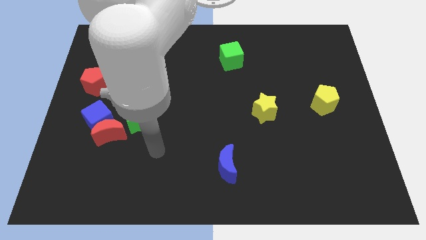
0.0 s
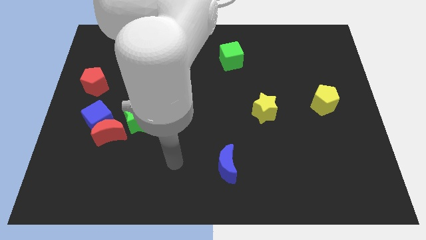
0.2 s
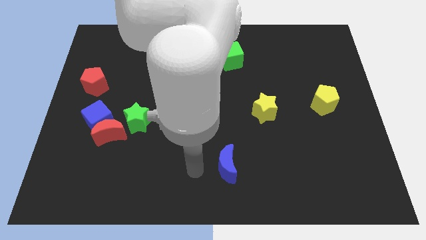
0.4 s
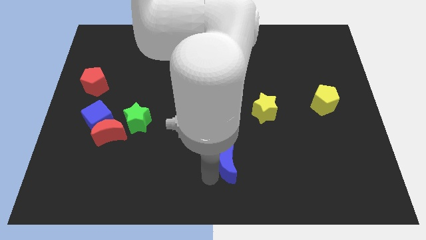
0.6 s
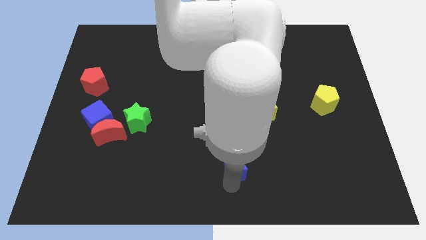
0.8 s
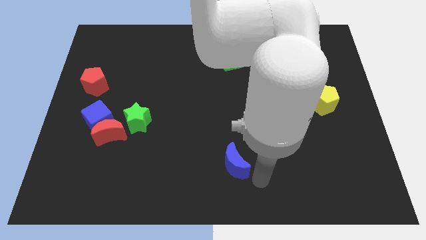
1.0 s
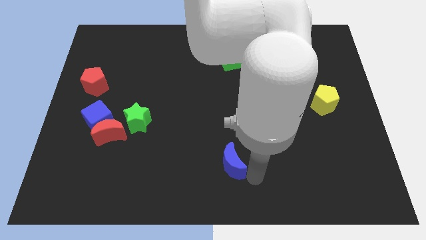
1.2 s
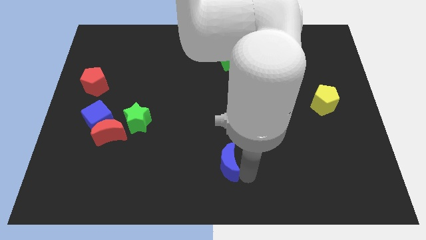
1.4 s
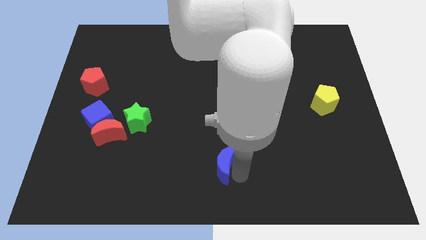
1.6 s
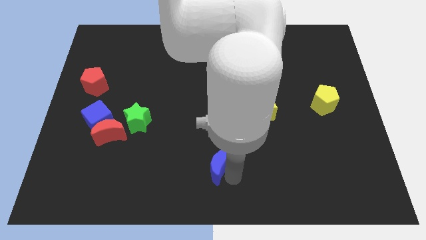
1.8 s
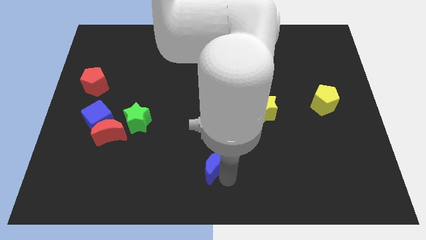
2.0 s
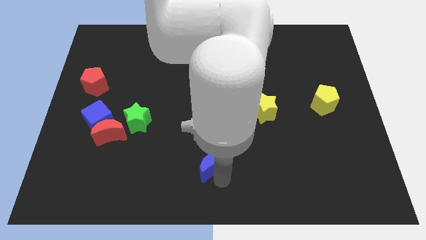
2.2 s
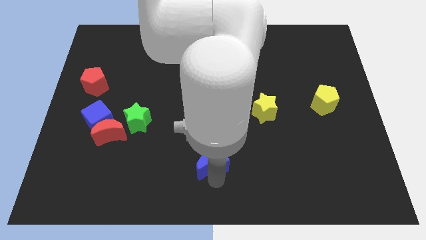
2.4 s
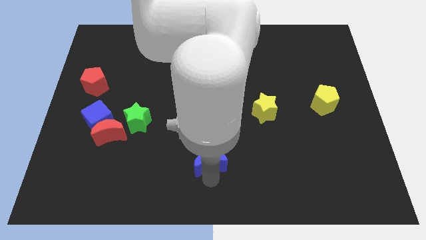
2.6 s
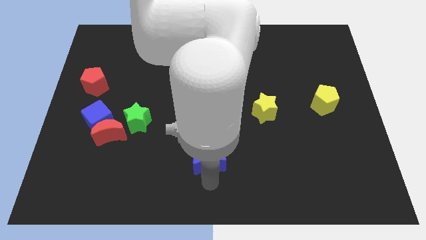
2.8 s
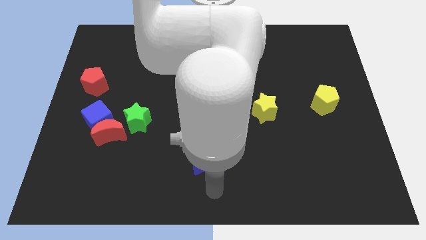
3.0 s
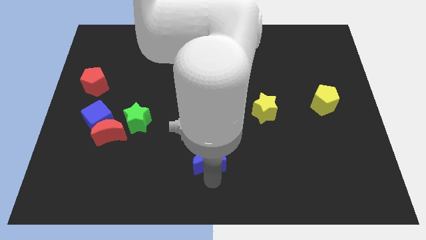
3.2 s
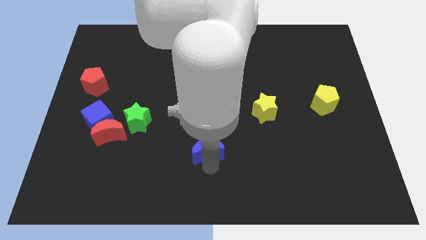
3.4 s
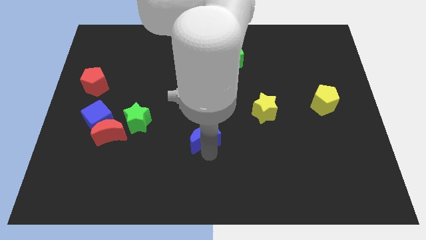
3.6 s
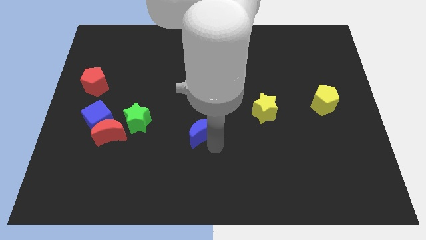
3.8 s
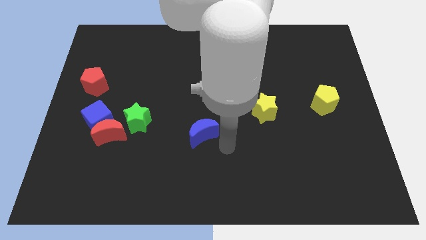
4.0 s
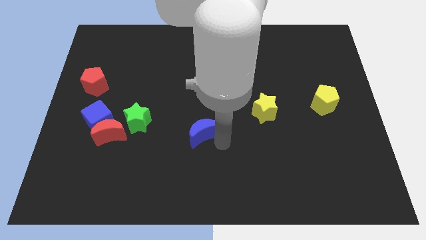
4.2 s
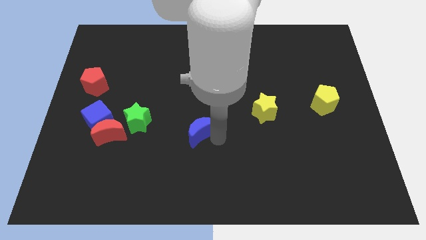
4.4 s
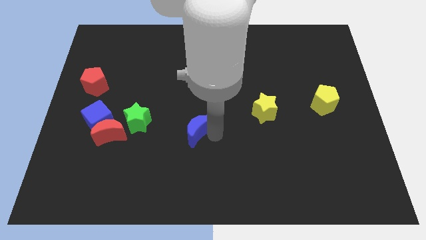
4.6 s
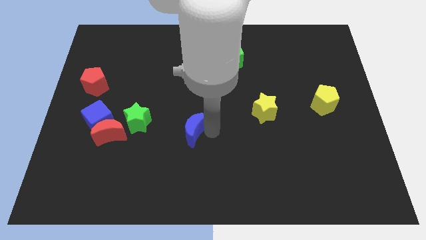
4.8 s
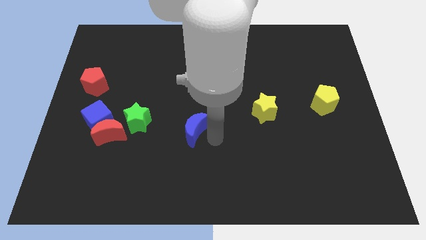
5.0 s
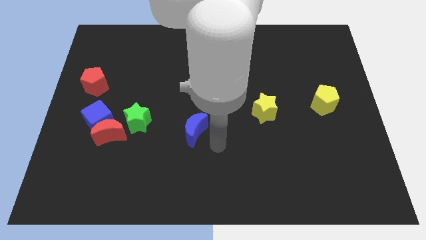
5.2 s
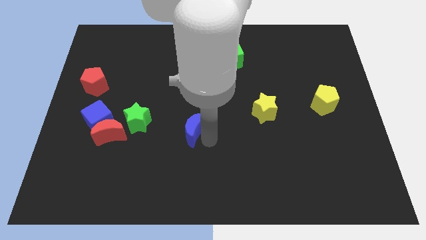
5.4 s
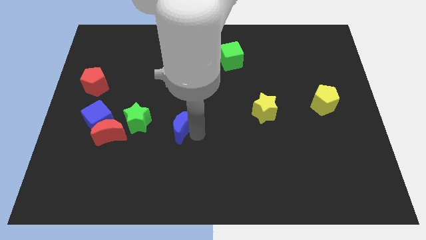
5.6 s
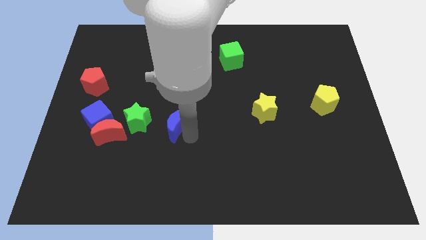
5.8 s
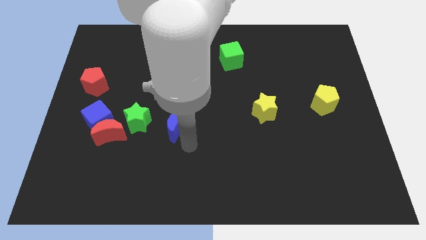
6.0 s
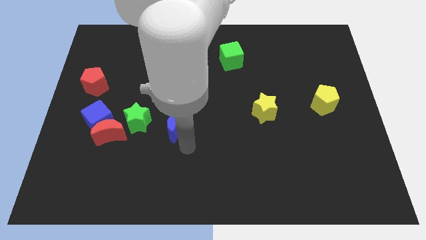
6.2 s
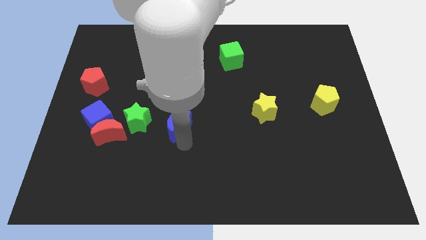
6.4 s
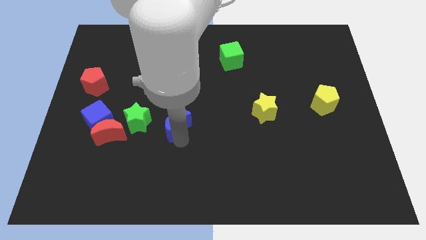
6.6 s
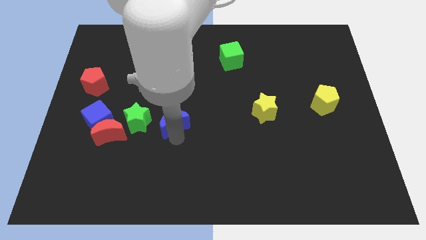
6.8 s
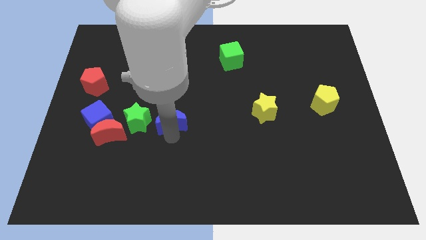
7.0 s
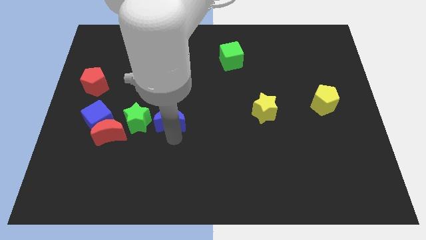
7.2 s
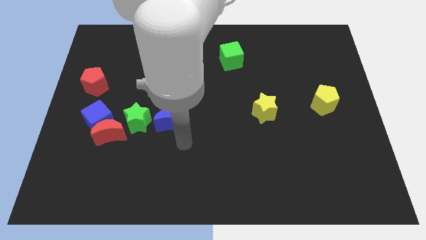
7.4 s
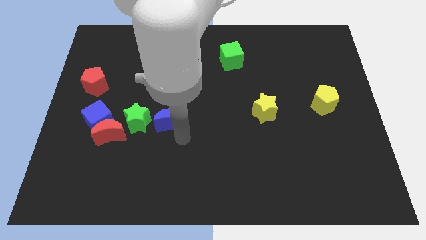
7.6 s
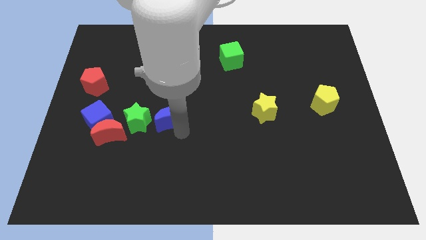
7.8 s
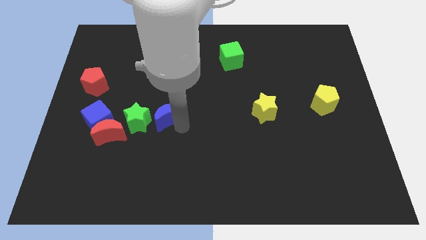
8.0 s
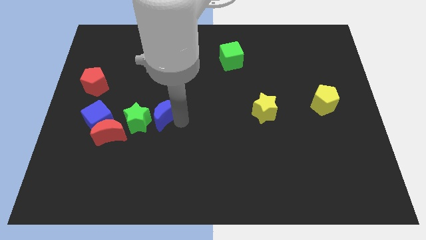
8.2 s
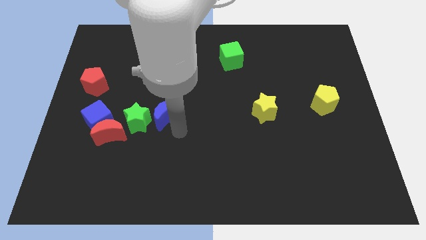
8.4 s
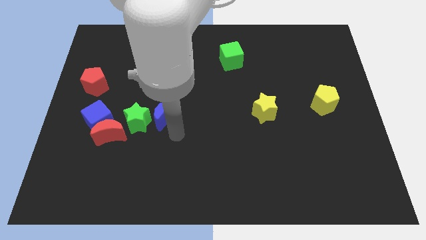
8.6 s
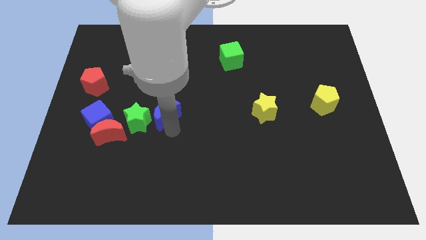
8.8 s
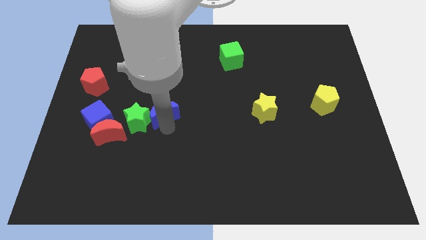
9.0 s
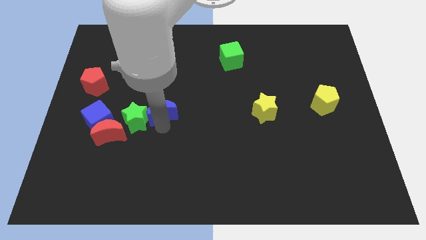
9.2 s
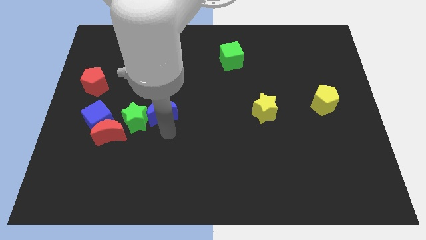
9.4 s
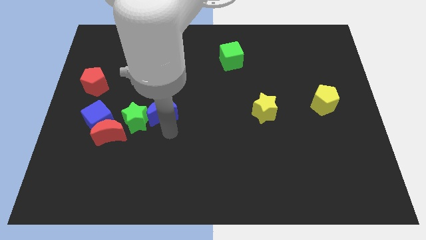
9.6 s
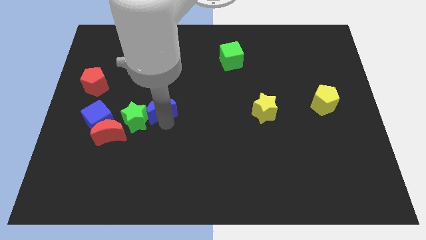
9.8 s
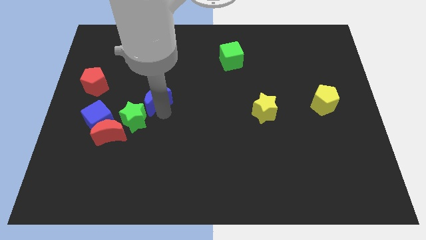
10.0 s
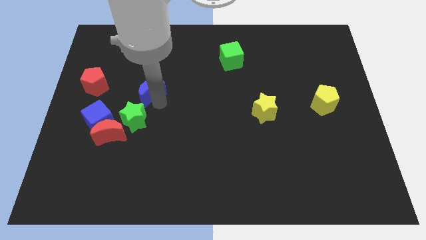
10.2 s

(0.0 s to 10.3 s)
put the blue moon just right of the red pentagon

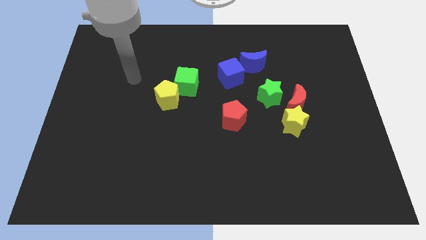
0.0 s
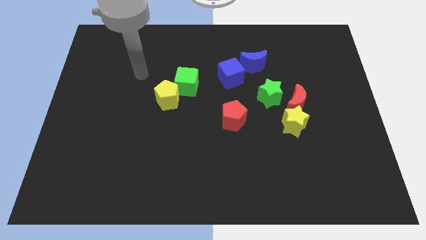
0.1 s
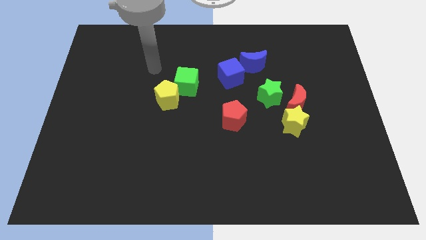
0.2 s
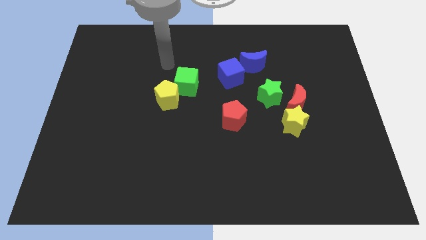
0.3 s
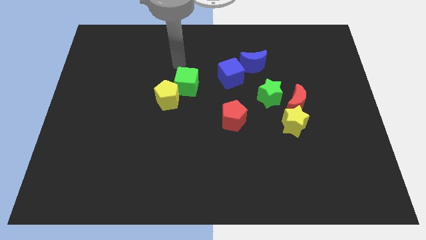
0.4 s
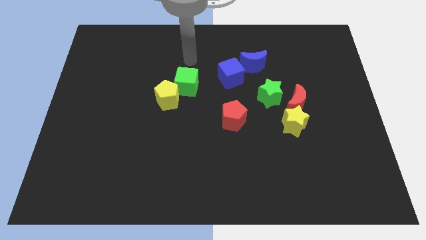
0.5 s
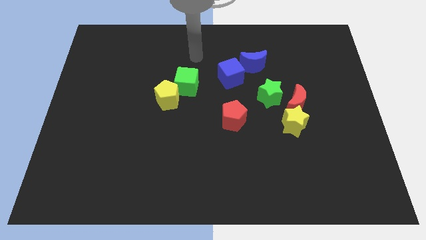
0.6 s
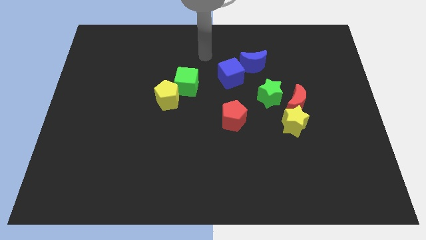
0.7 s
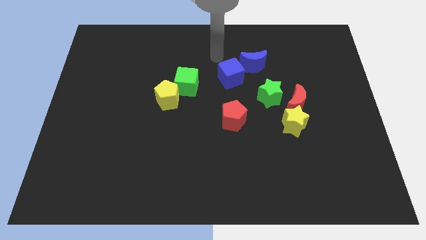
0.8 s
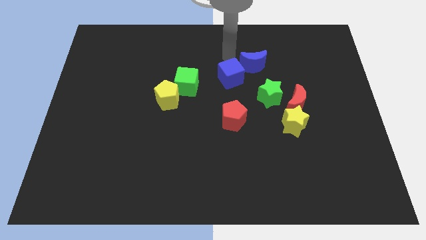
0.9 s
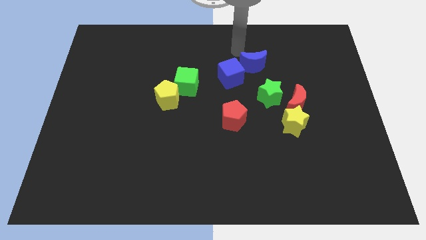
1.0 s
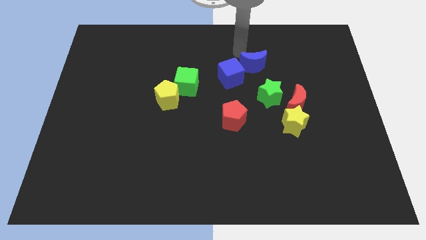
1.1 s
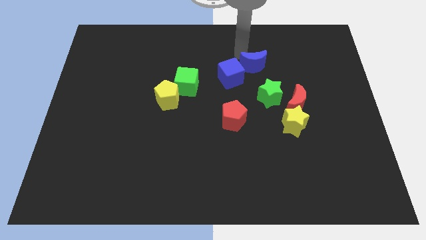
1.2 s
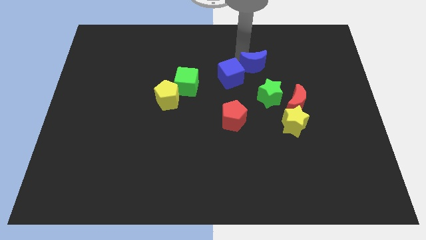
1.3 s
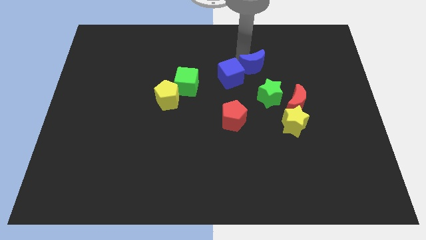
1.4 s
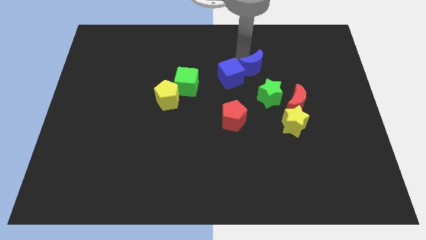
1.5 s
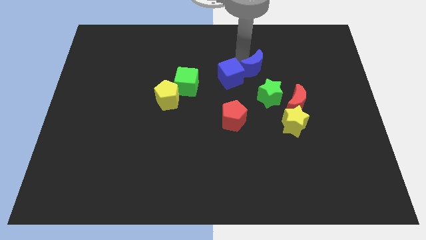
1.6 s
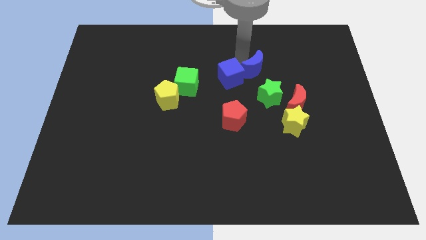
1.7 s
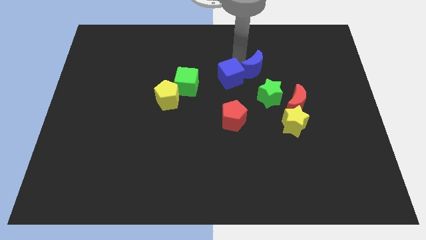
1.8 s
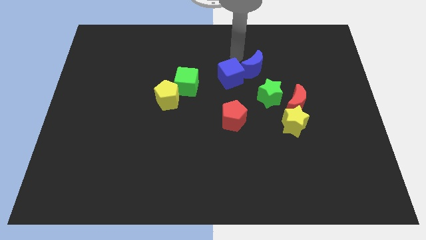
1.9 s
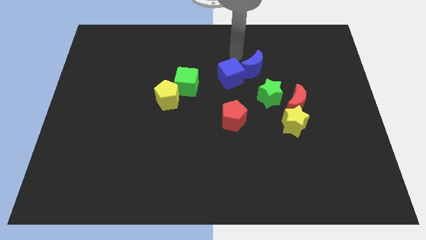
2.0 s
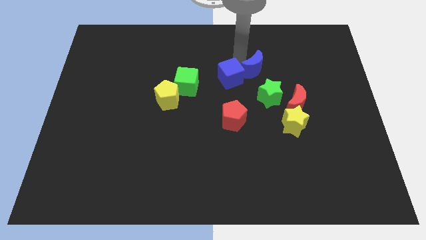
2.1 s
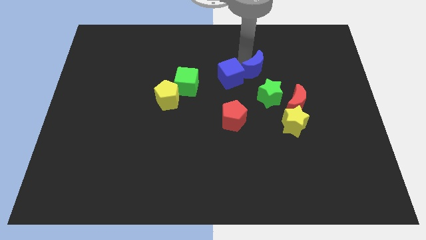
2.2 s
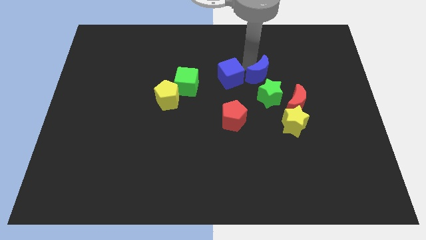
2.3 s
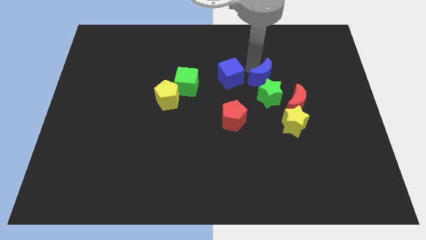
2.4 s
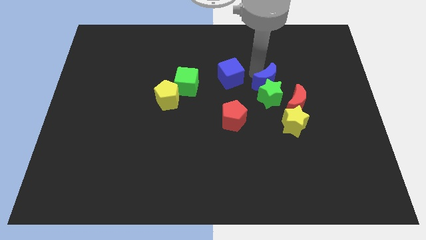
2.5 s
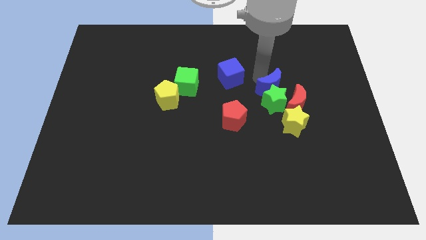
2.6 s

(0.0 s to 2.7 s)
slide the blue moon above the yellow star
